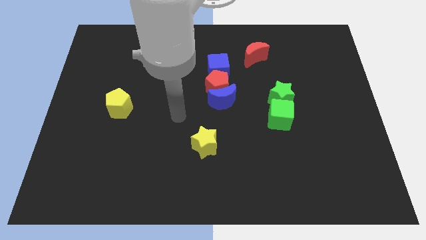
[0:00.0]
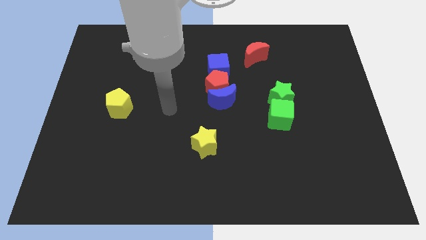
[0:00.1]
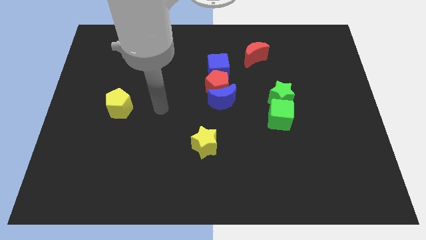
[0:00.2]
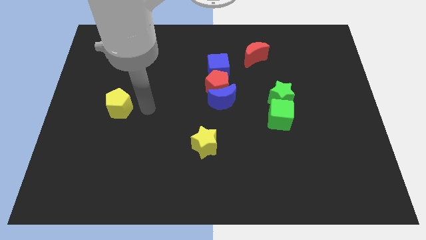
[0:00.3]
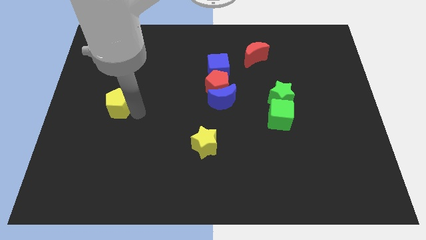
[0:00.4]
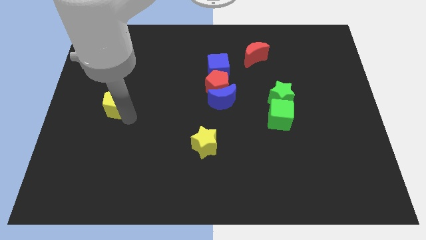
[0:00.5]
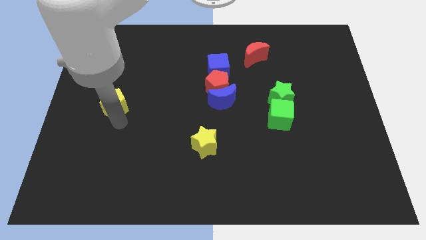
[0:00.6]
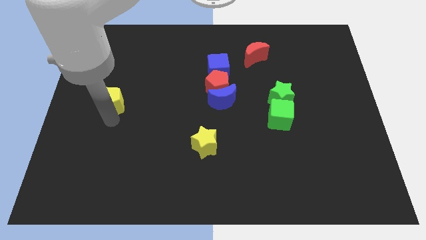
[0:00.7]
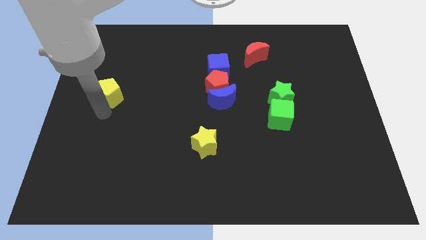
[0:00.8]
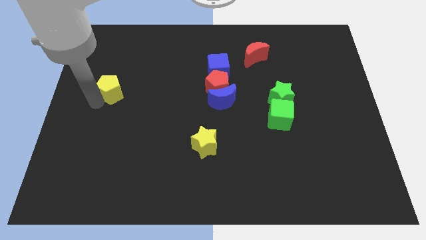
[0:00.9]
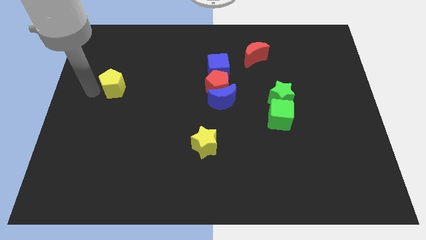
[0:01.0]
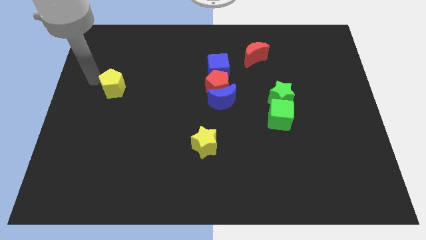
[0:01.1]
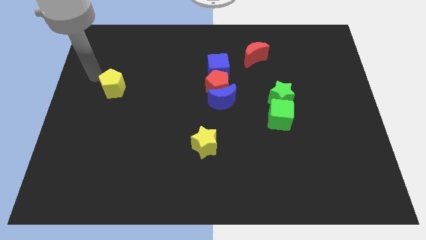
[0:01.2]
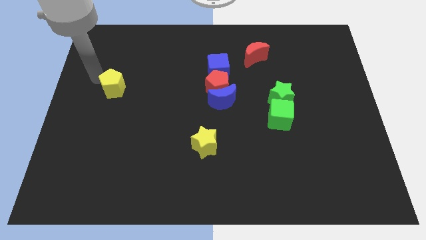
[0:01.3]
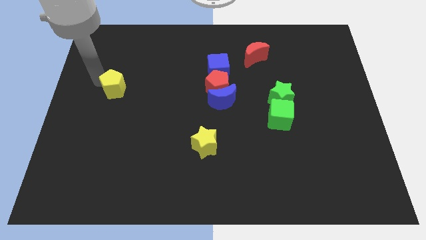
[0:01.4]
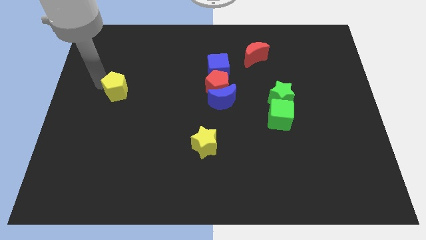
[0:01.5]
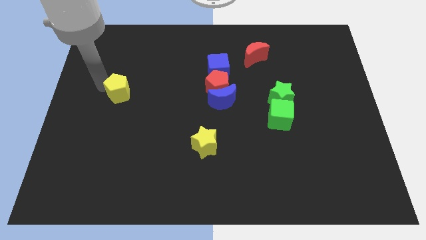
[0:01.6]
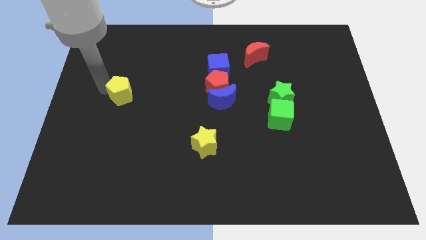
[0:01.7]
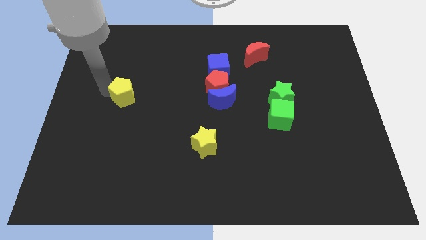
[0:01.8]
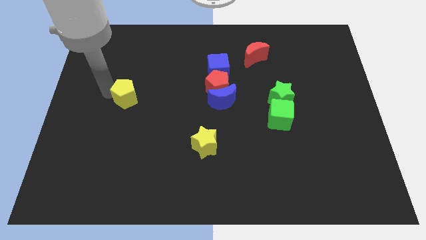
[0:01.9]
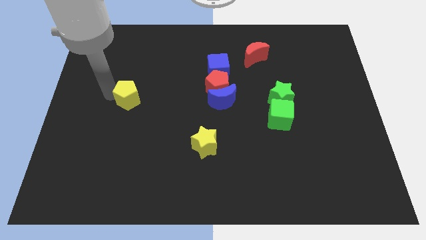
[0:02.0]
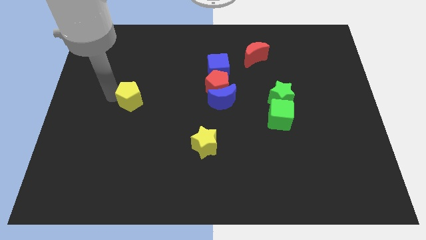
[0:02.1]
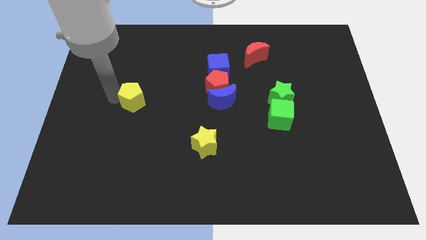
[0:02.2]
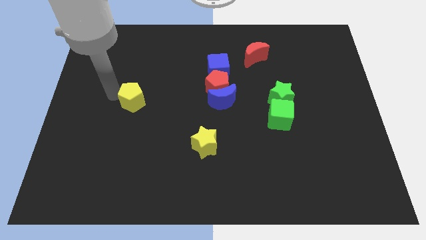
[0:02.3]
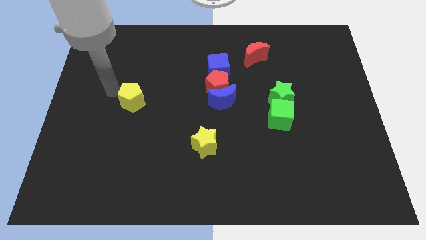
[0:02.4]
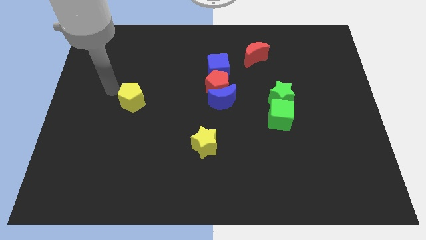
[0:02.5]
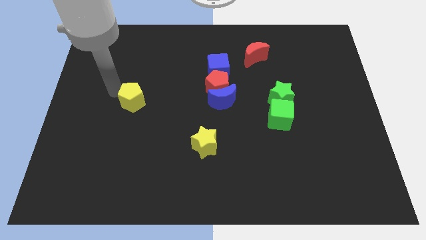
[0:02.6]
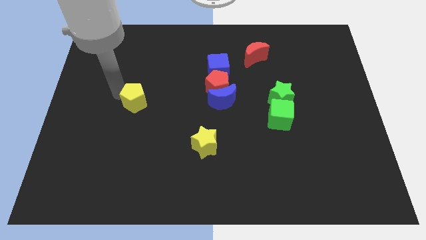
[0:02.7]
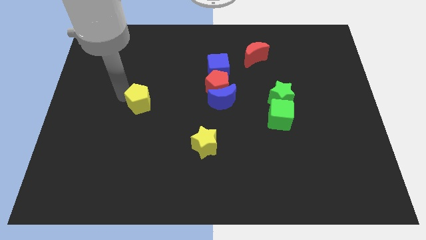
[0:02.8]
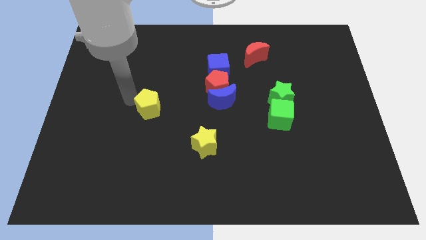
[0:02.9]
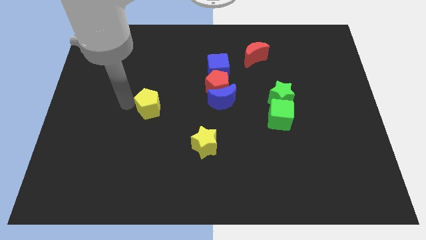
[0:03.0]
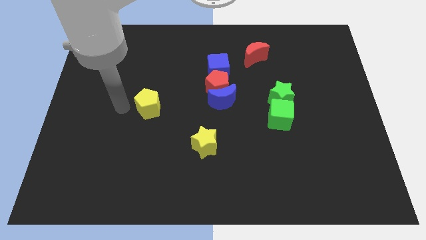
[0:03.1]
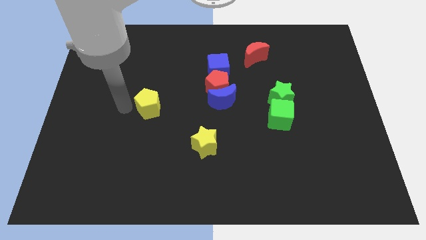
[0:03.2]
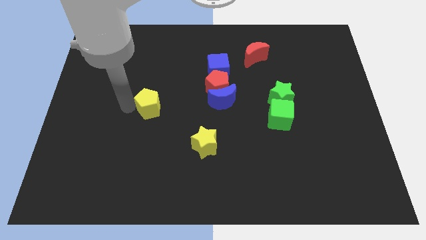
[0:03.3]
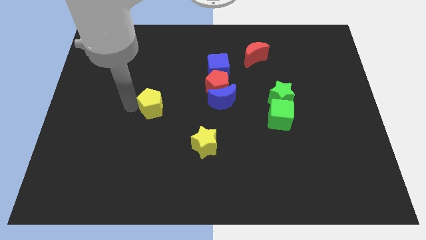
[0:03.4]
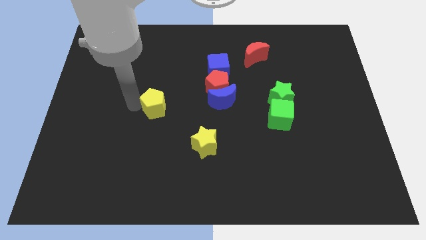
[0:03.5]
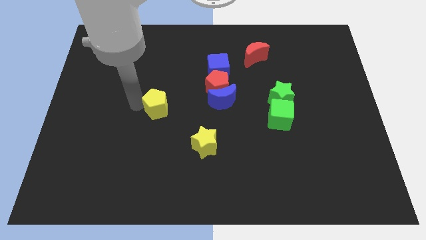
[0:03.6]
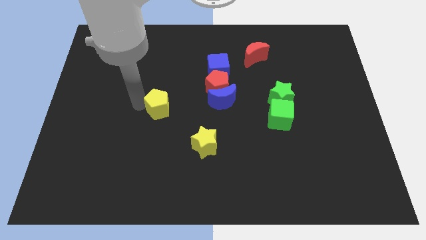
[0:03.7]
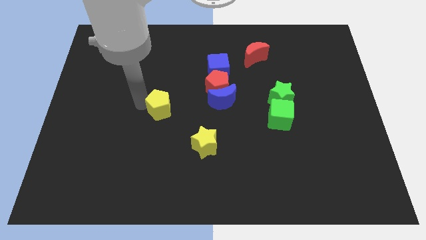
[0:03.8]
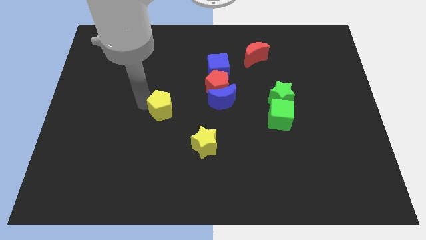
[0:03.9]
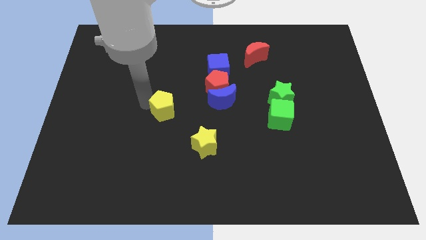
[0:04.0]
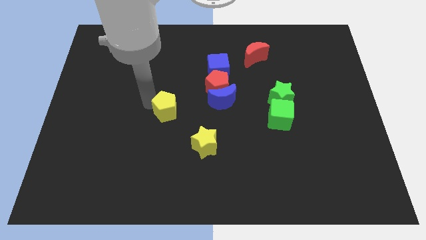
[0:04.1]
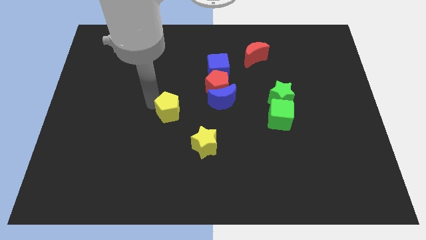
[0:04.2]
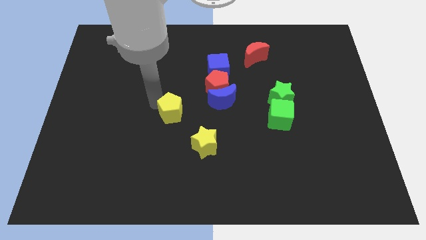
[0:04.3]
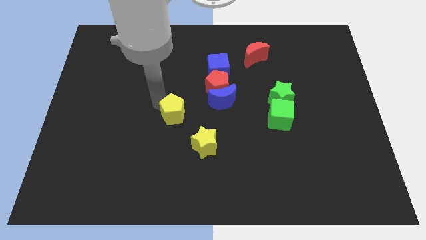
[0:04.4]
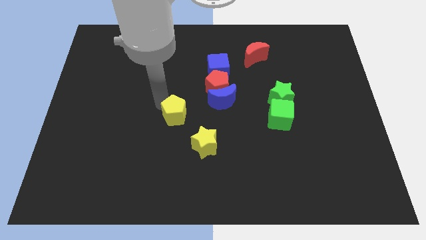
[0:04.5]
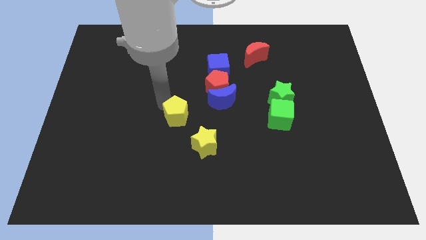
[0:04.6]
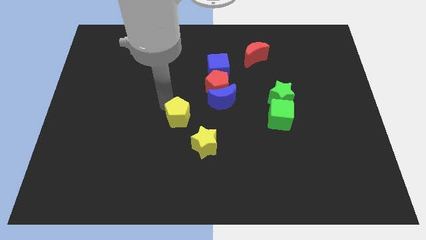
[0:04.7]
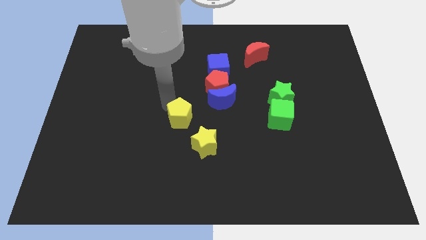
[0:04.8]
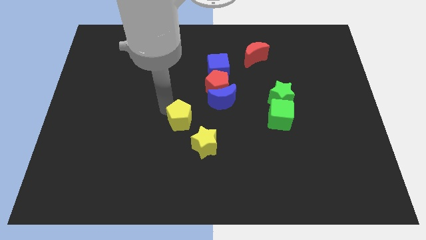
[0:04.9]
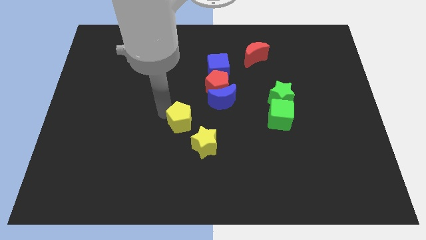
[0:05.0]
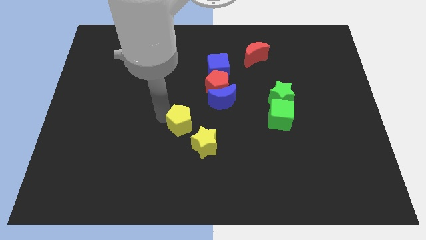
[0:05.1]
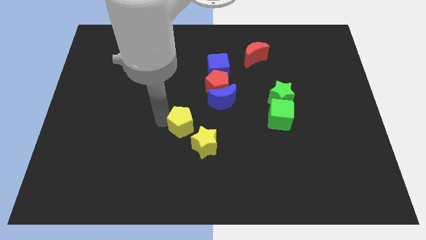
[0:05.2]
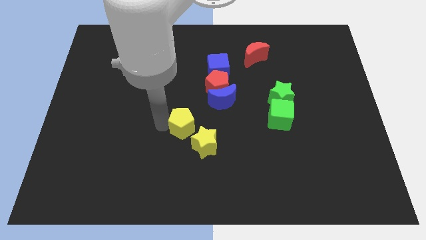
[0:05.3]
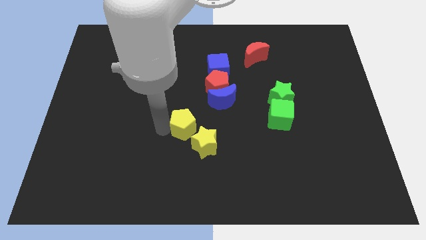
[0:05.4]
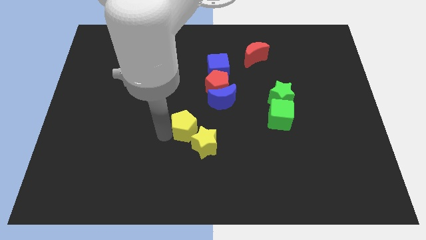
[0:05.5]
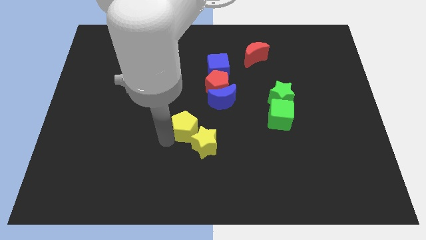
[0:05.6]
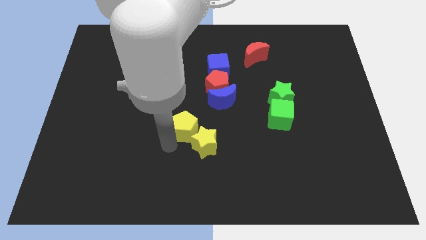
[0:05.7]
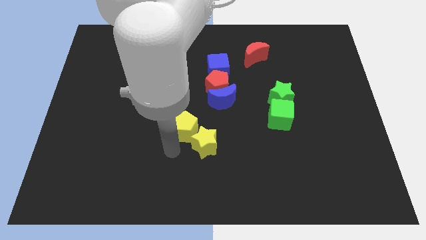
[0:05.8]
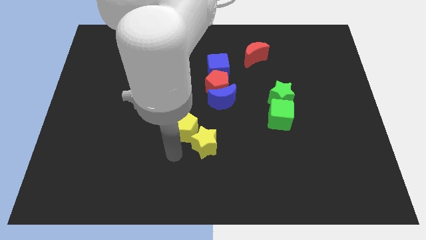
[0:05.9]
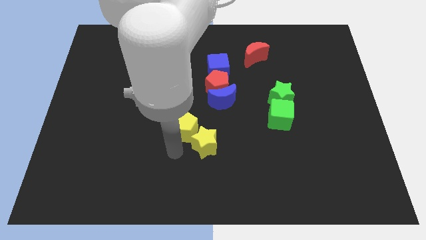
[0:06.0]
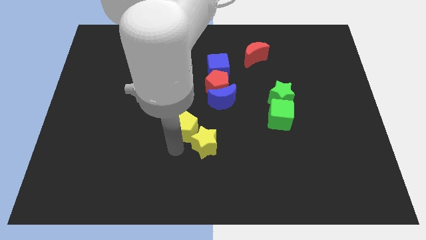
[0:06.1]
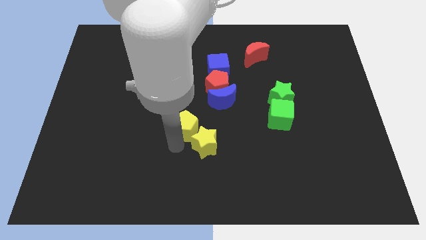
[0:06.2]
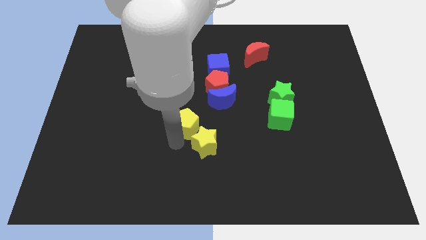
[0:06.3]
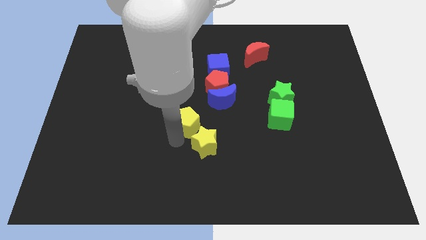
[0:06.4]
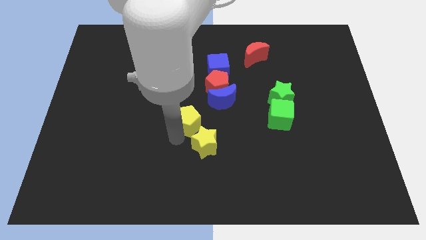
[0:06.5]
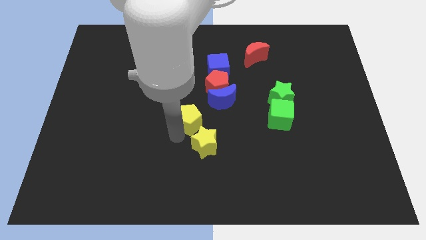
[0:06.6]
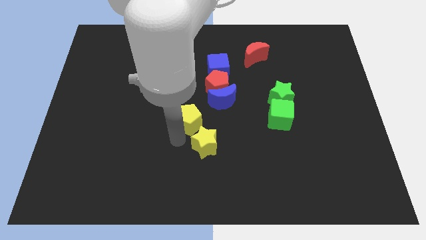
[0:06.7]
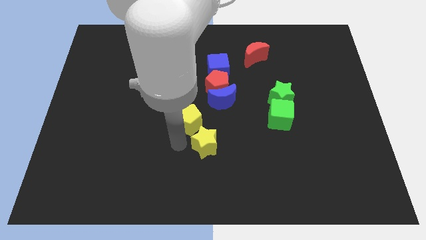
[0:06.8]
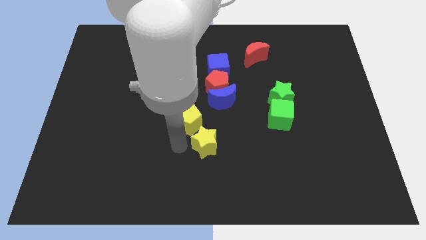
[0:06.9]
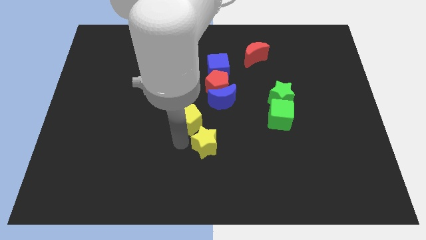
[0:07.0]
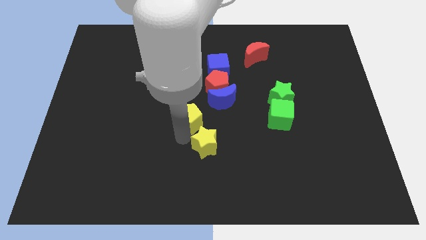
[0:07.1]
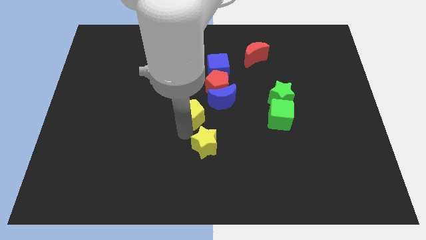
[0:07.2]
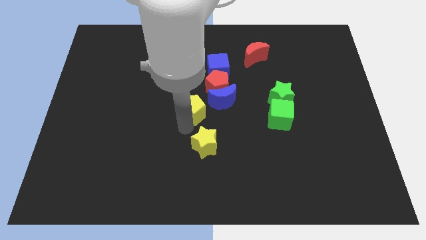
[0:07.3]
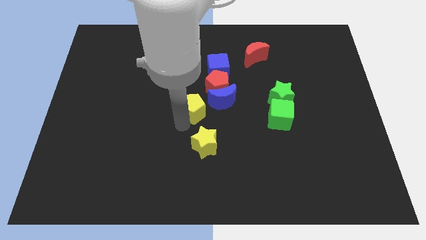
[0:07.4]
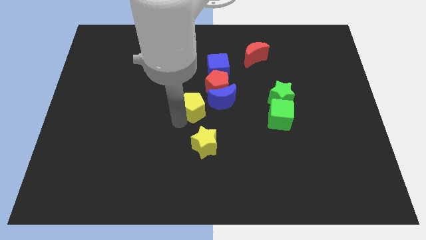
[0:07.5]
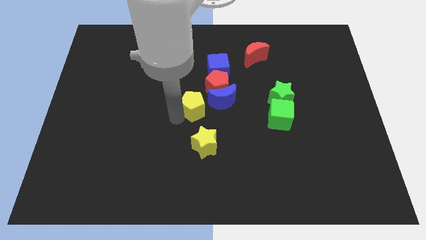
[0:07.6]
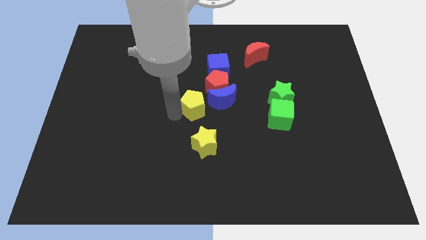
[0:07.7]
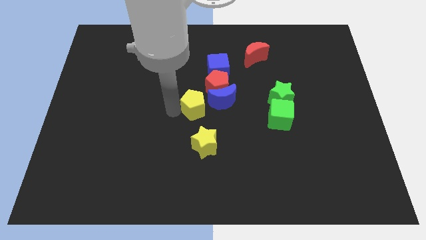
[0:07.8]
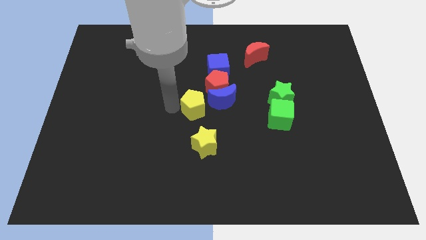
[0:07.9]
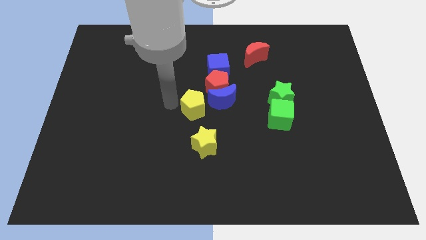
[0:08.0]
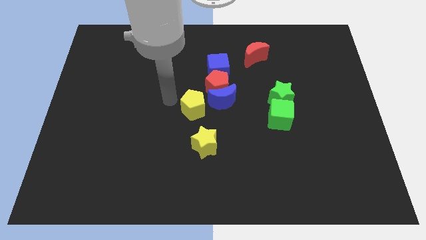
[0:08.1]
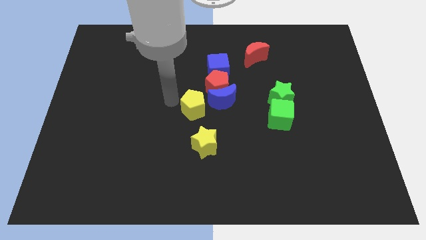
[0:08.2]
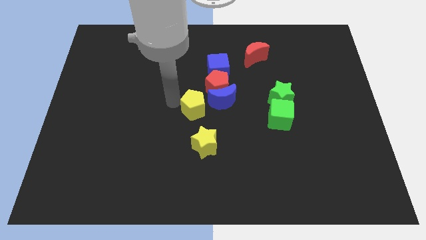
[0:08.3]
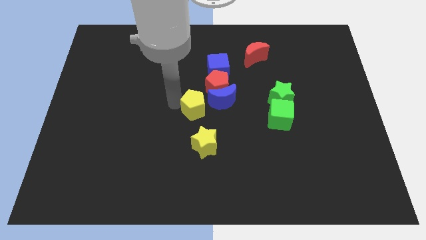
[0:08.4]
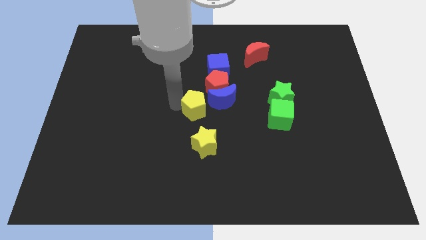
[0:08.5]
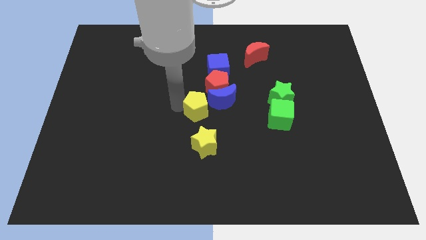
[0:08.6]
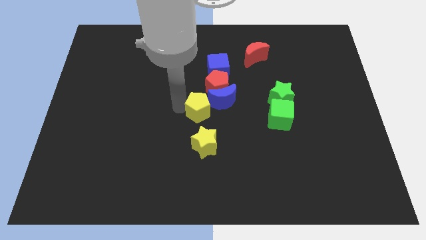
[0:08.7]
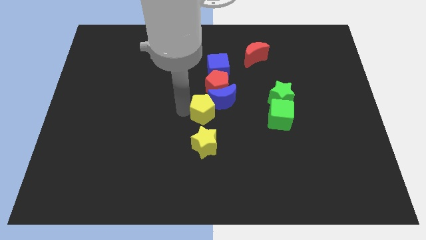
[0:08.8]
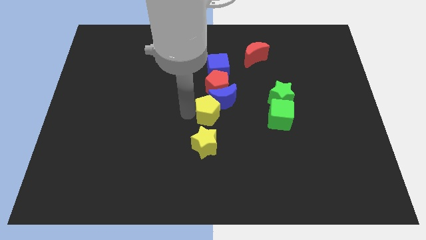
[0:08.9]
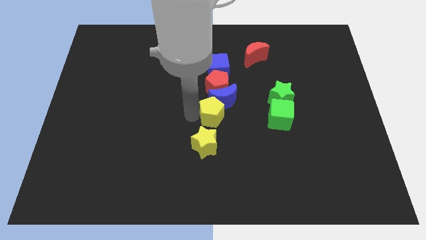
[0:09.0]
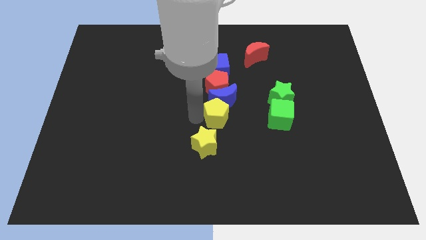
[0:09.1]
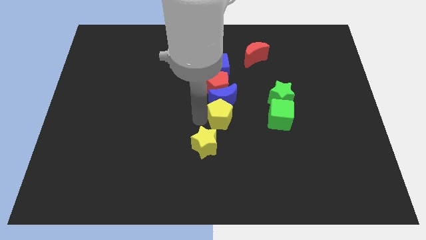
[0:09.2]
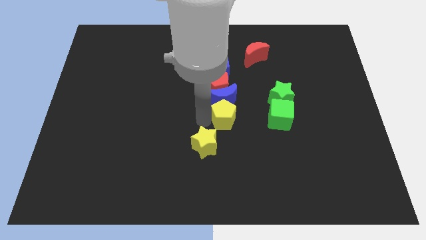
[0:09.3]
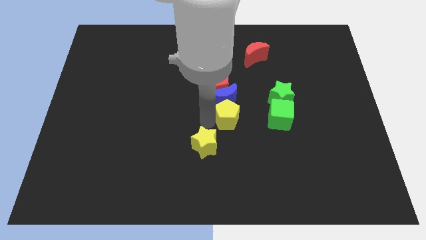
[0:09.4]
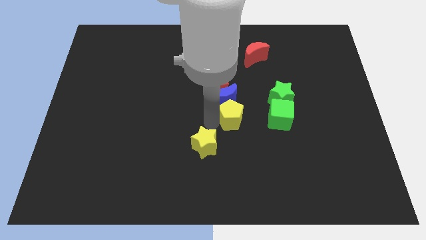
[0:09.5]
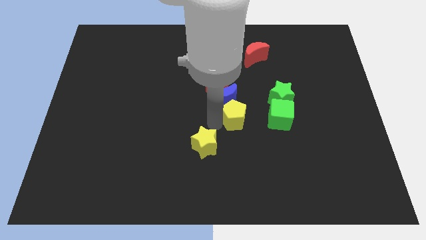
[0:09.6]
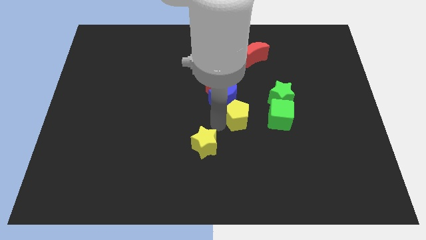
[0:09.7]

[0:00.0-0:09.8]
put the yellow pentagon to the bottom left of the green star
